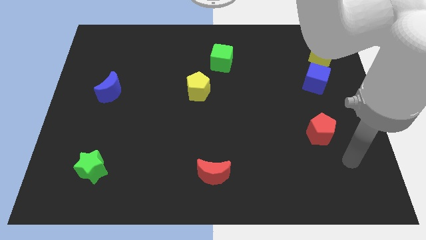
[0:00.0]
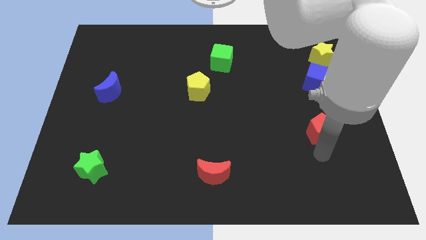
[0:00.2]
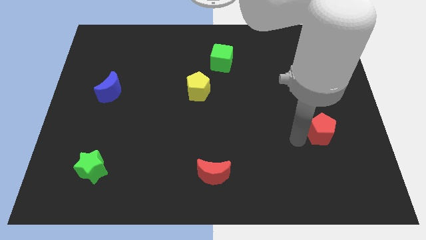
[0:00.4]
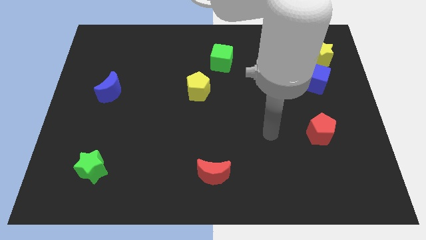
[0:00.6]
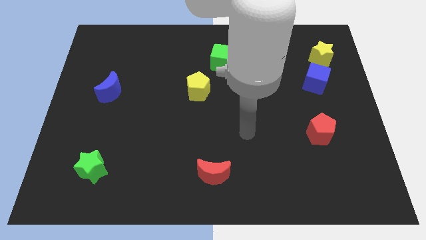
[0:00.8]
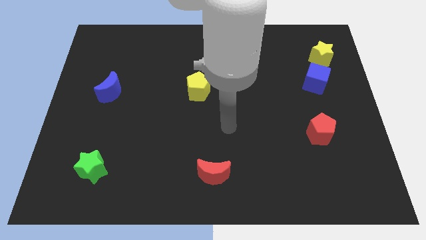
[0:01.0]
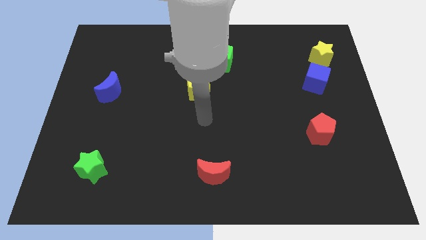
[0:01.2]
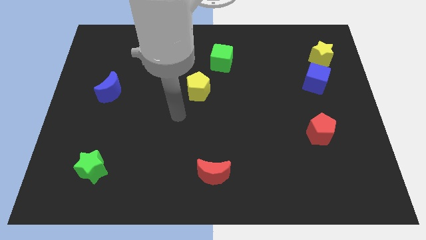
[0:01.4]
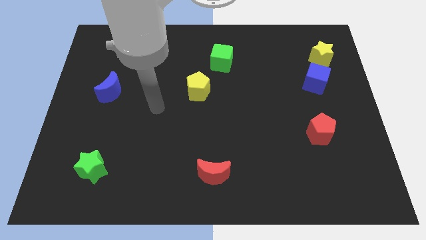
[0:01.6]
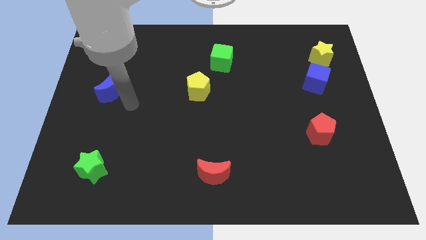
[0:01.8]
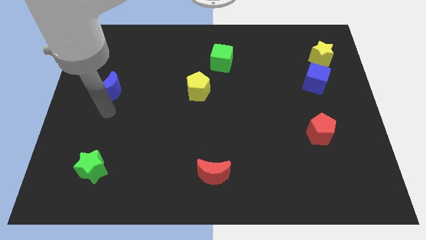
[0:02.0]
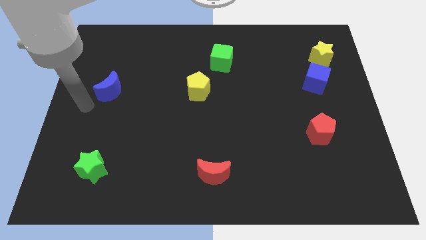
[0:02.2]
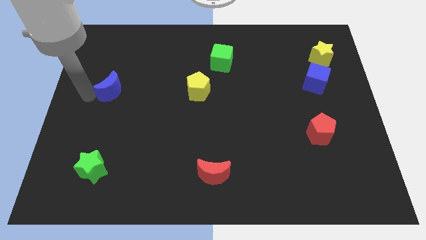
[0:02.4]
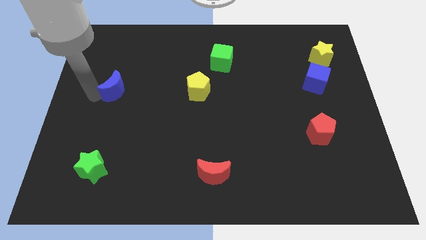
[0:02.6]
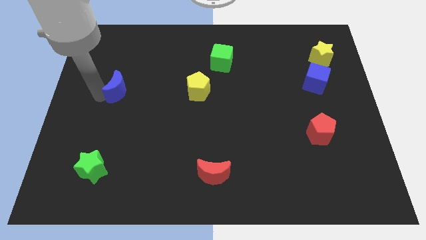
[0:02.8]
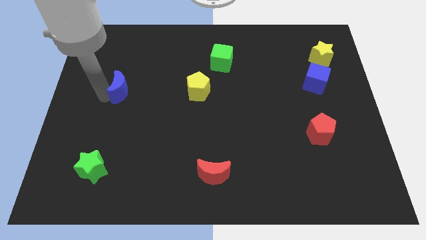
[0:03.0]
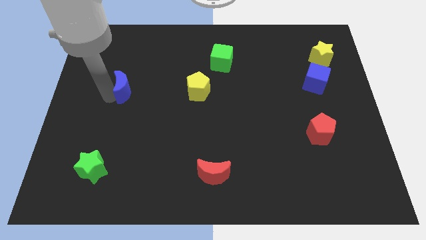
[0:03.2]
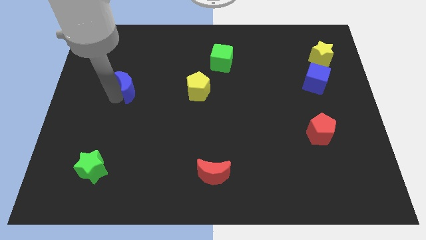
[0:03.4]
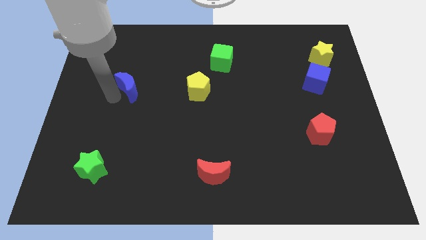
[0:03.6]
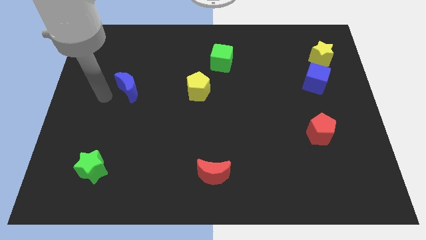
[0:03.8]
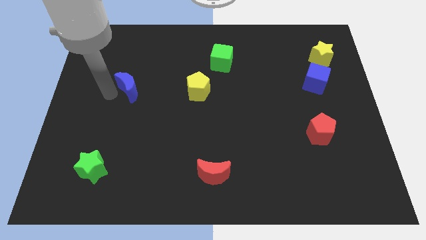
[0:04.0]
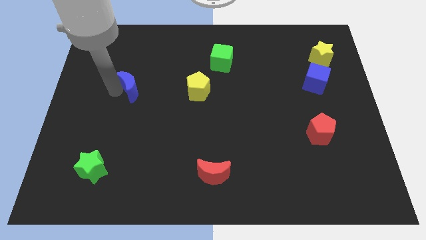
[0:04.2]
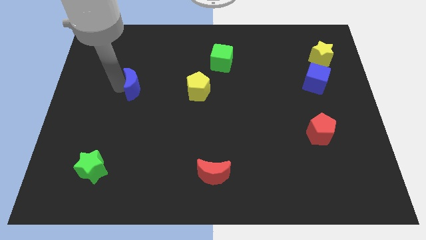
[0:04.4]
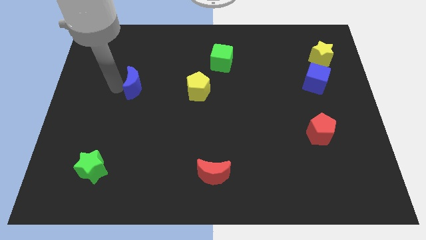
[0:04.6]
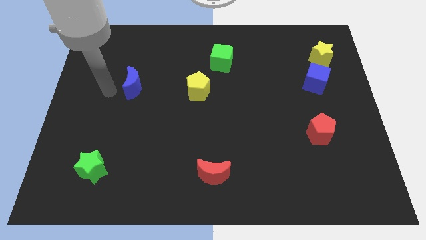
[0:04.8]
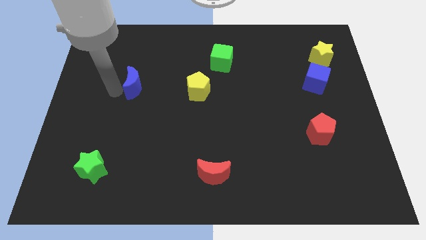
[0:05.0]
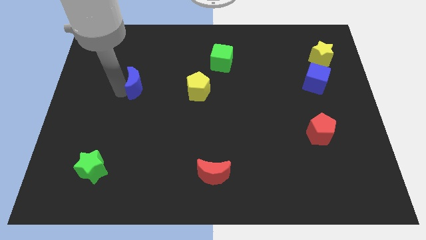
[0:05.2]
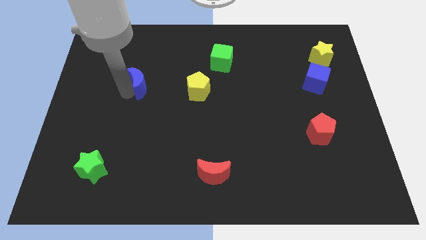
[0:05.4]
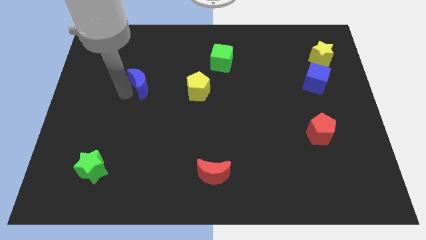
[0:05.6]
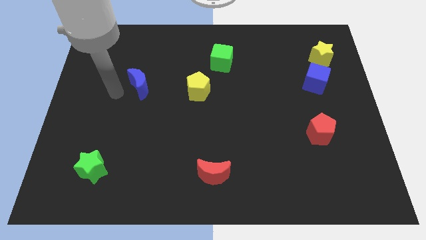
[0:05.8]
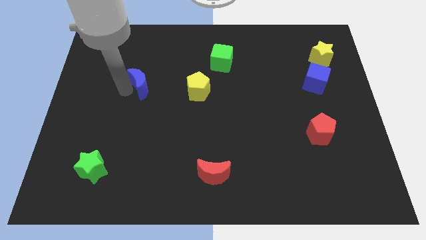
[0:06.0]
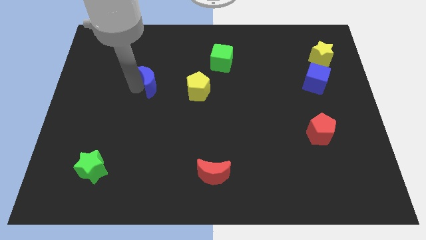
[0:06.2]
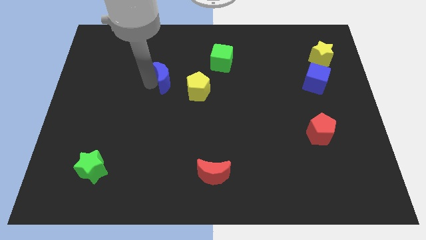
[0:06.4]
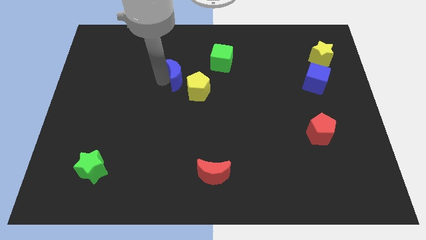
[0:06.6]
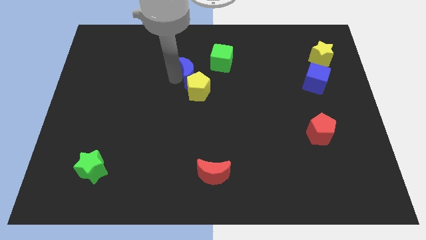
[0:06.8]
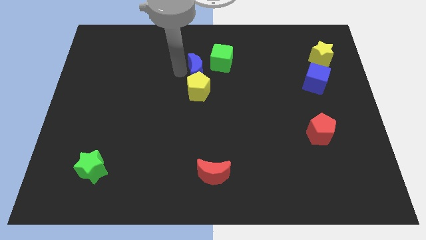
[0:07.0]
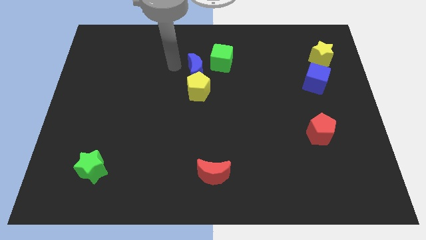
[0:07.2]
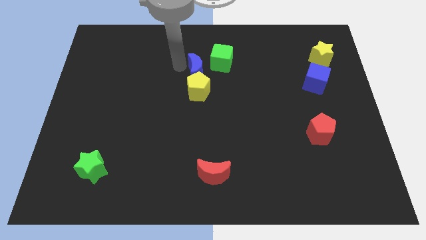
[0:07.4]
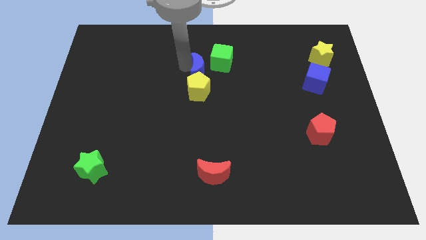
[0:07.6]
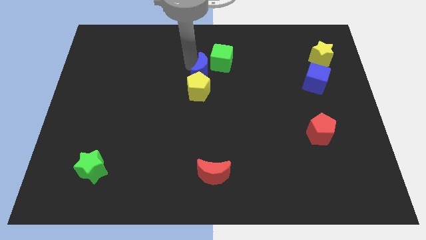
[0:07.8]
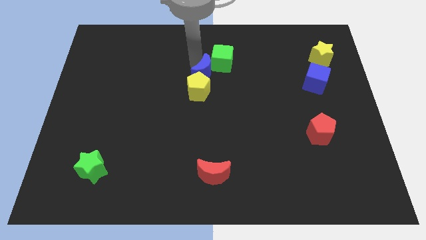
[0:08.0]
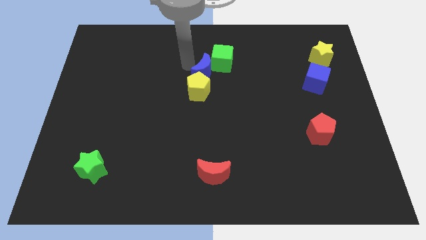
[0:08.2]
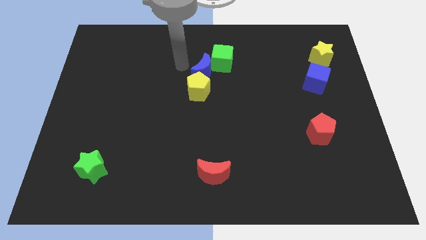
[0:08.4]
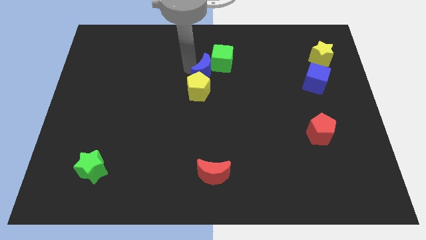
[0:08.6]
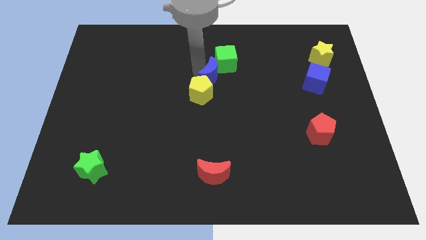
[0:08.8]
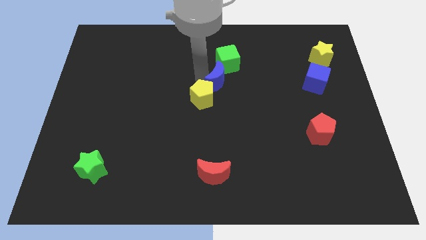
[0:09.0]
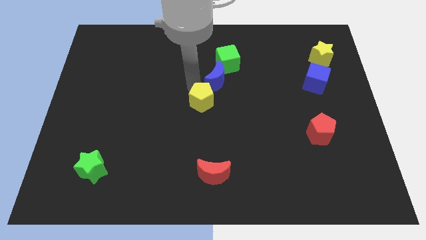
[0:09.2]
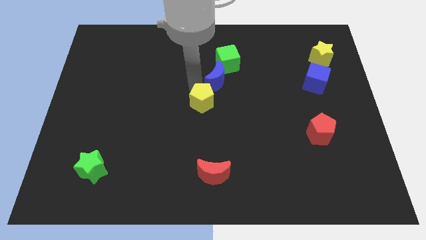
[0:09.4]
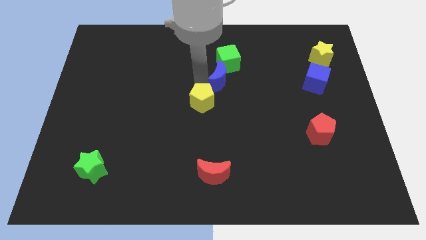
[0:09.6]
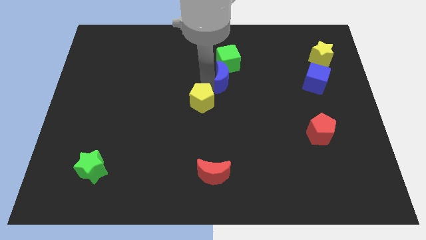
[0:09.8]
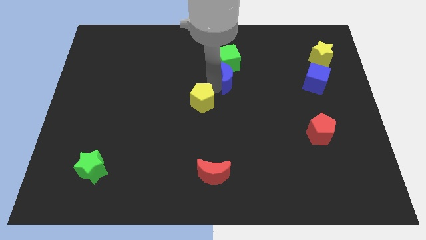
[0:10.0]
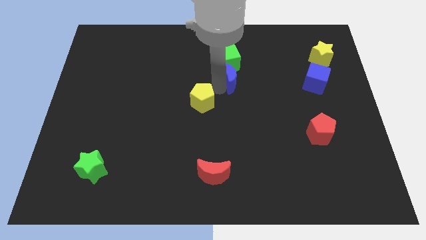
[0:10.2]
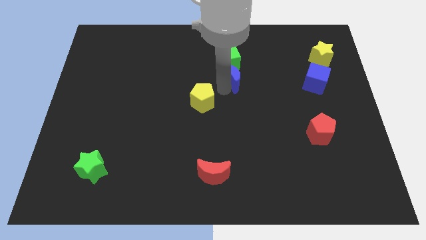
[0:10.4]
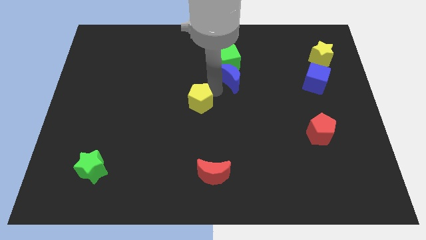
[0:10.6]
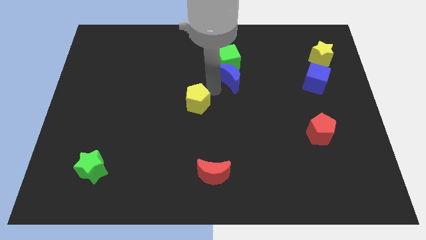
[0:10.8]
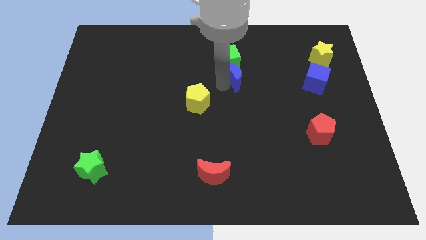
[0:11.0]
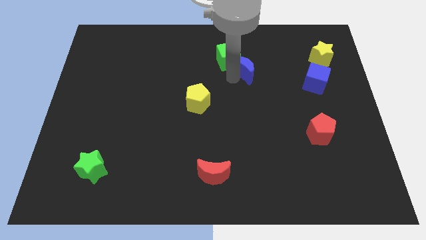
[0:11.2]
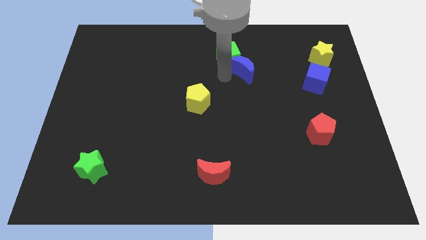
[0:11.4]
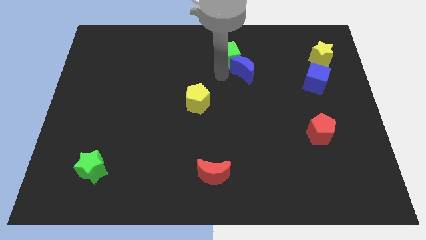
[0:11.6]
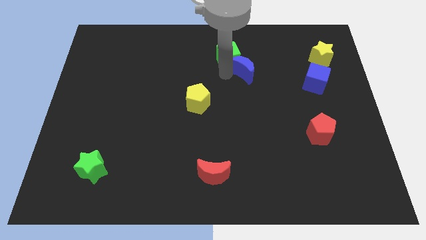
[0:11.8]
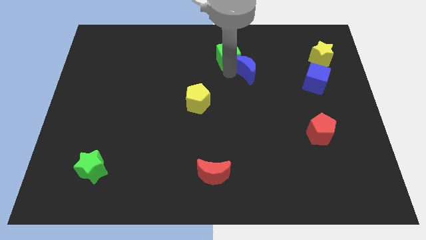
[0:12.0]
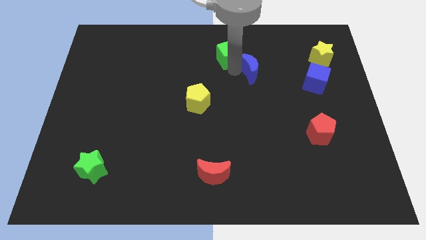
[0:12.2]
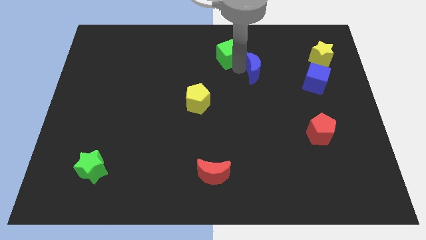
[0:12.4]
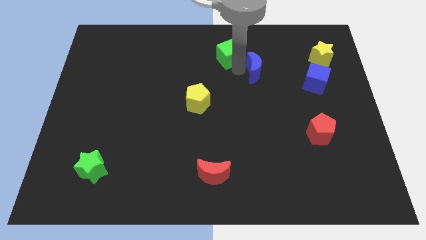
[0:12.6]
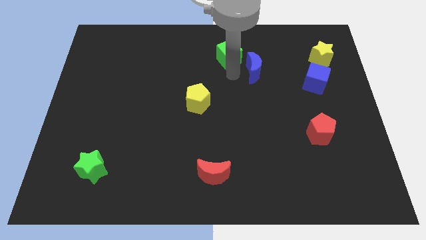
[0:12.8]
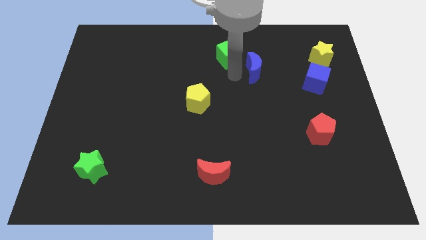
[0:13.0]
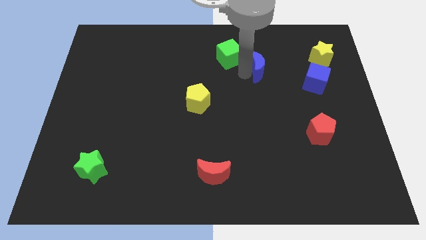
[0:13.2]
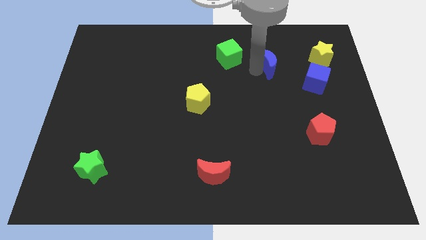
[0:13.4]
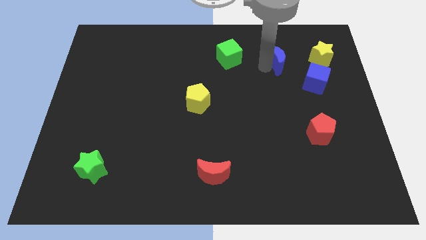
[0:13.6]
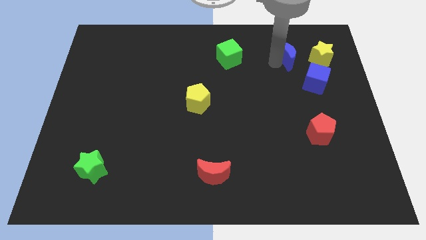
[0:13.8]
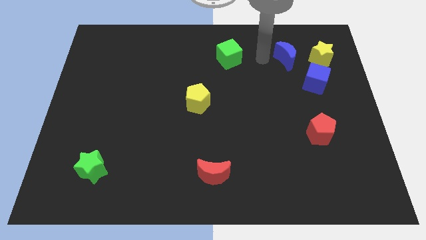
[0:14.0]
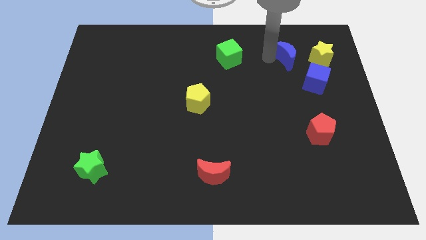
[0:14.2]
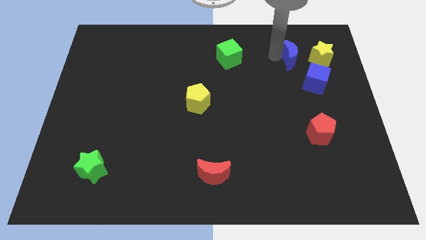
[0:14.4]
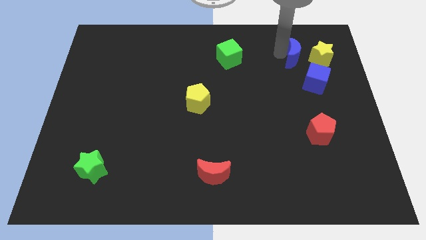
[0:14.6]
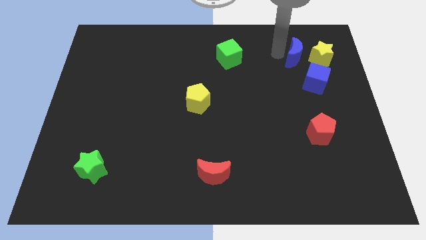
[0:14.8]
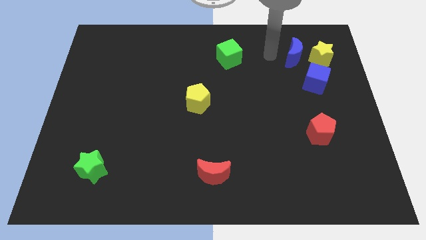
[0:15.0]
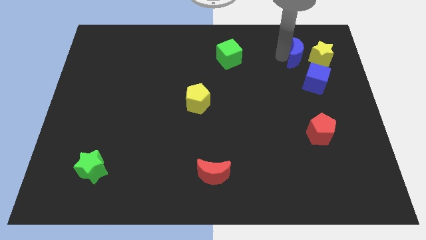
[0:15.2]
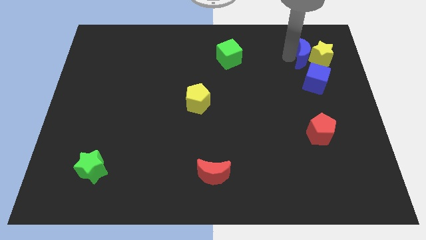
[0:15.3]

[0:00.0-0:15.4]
move the blue moon close to the yellow star
